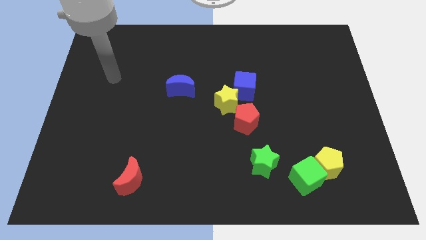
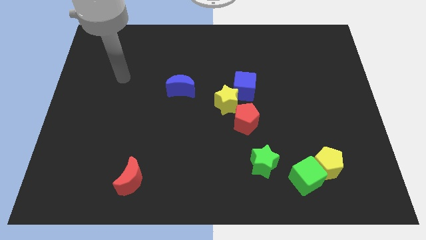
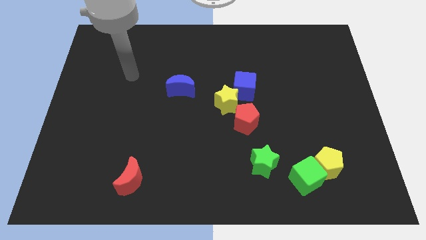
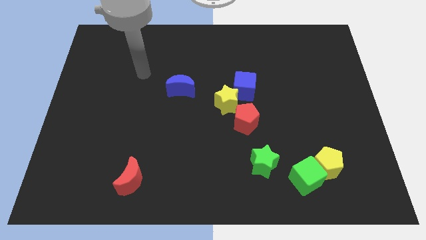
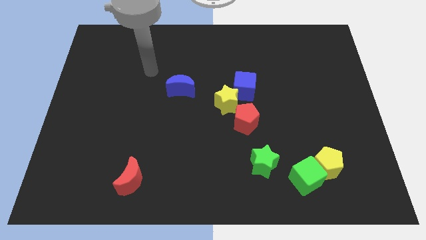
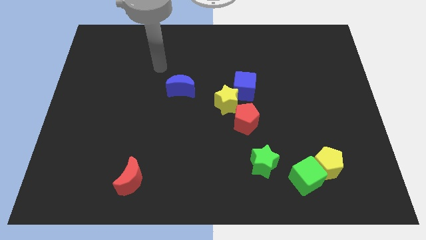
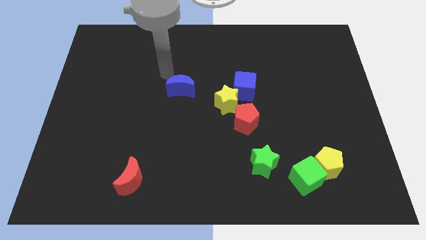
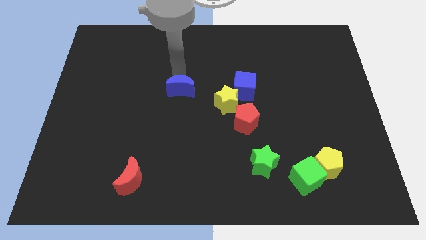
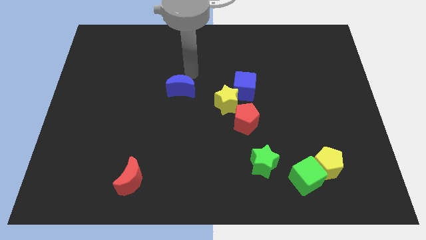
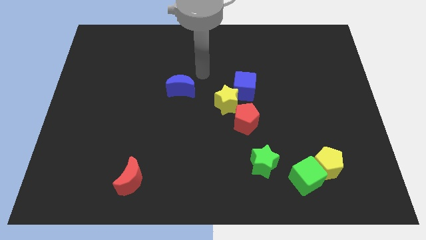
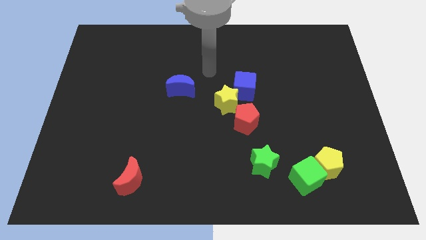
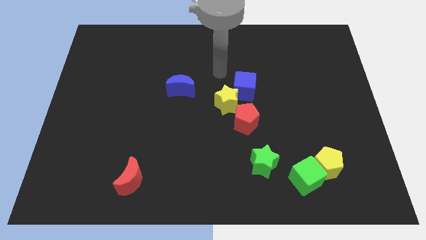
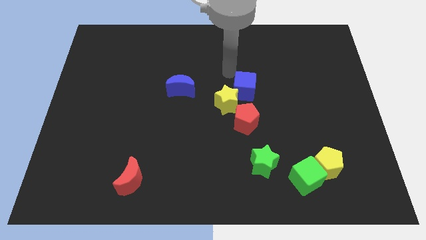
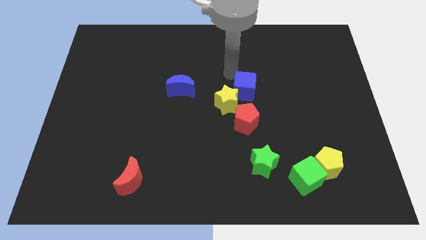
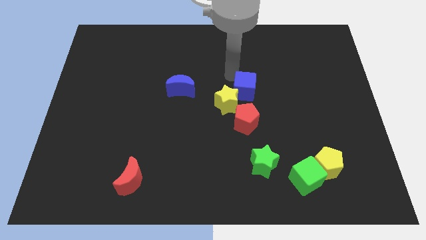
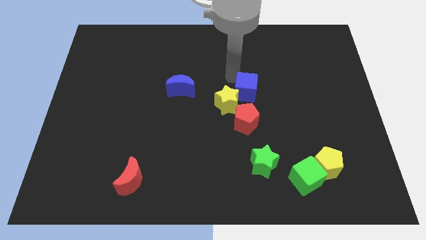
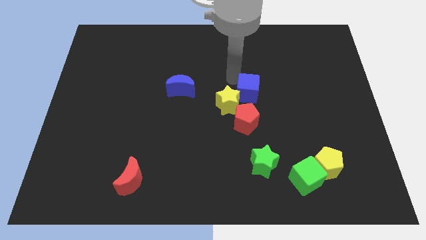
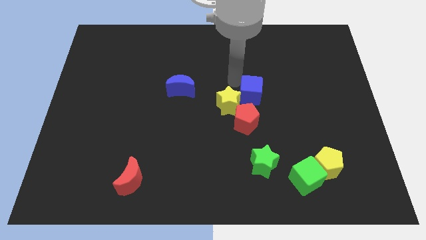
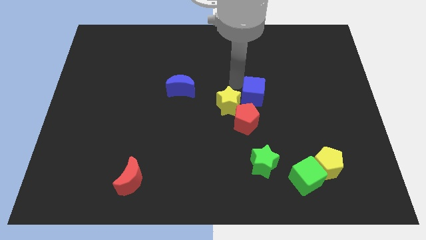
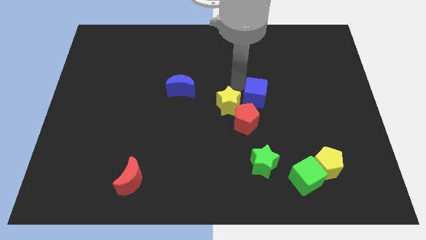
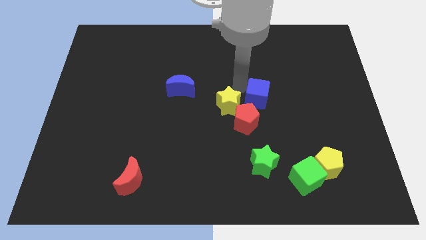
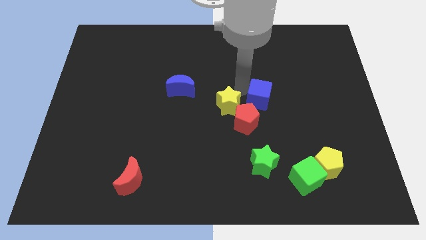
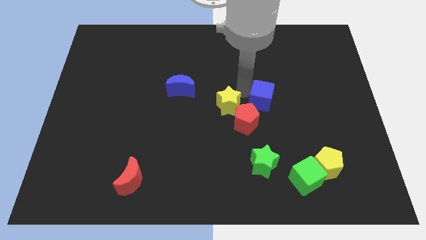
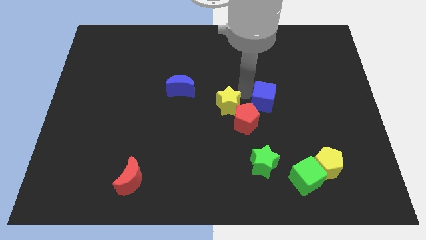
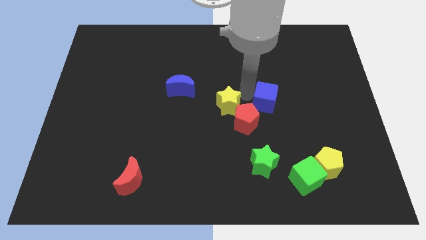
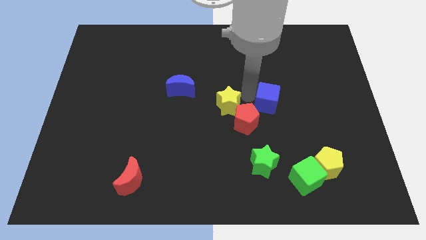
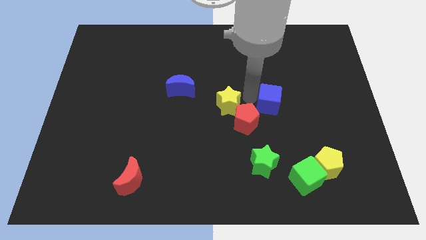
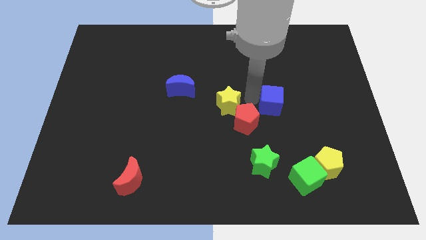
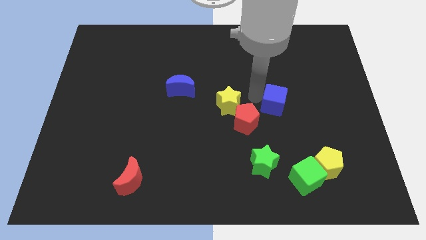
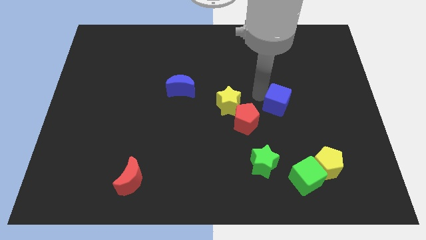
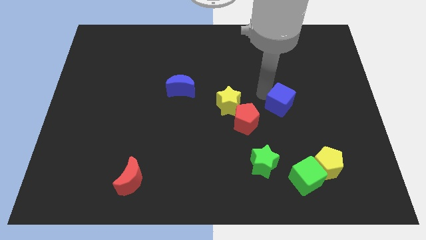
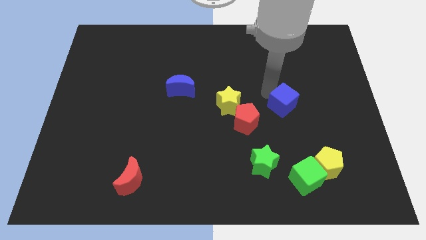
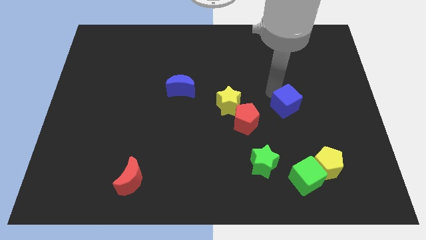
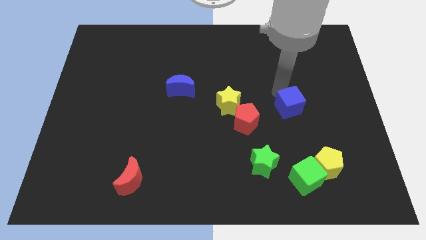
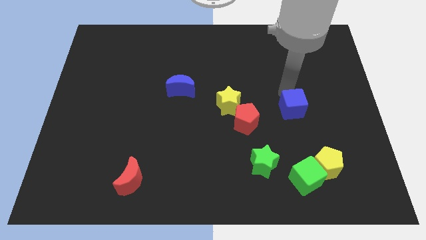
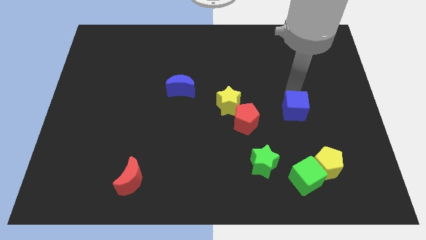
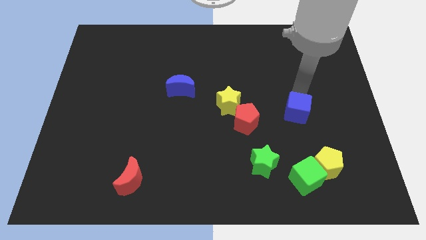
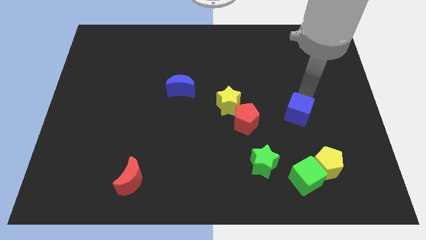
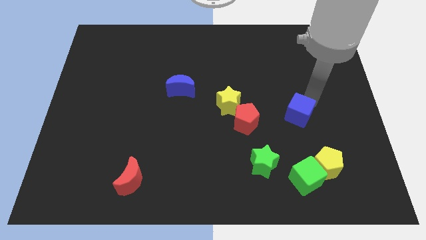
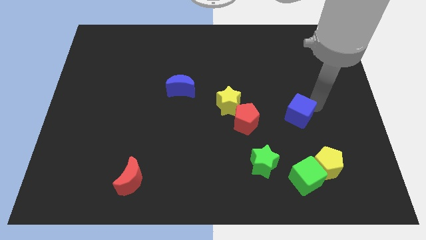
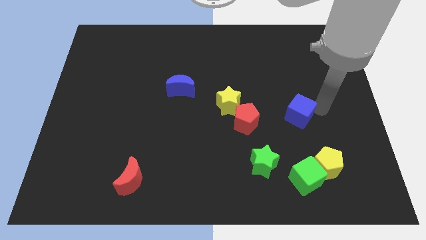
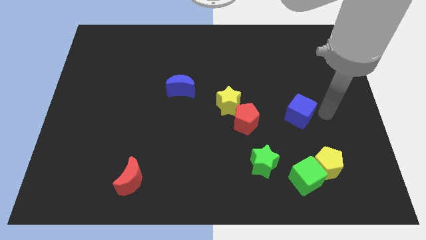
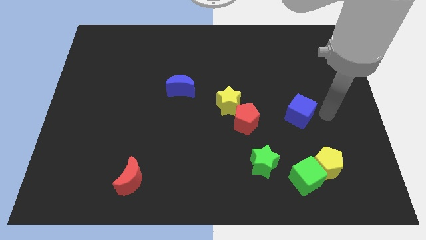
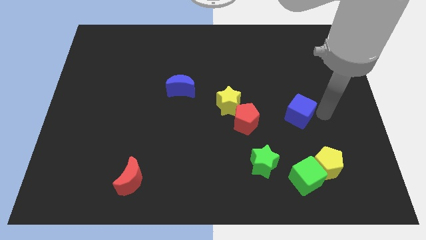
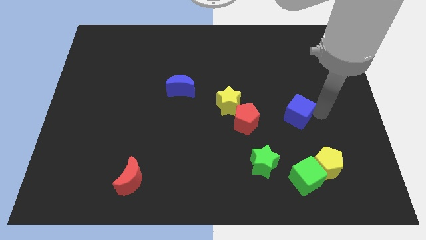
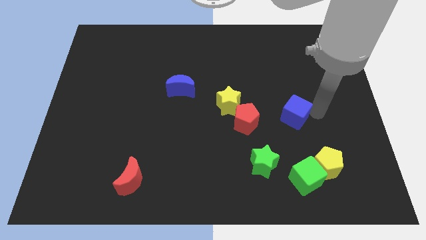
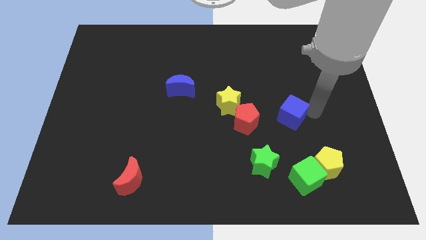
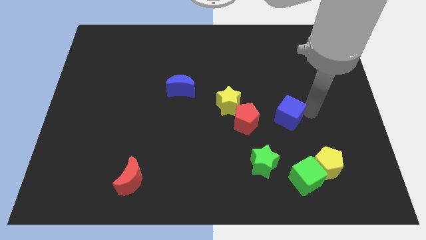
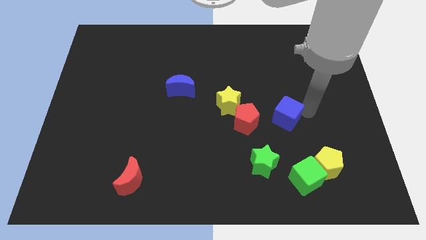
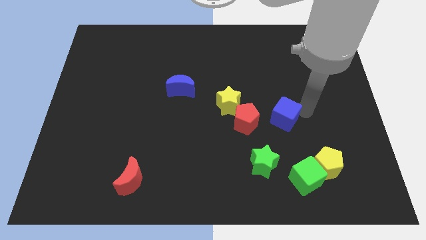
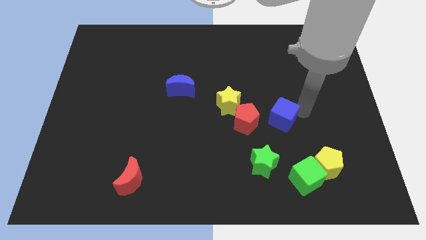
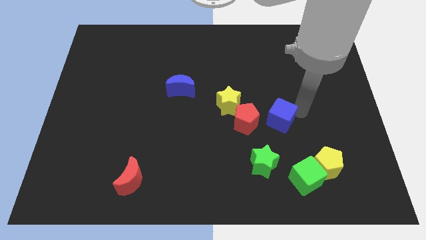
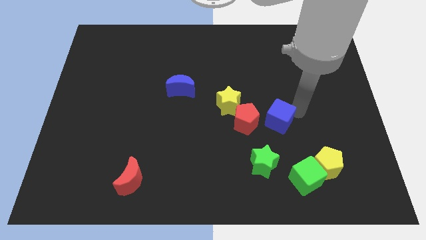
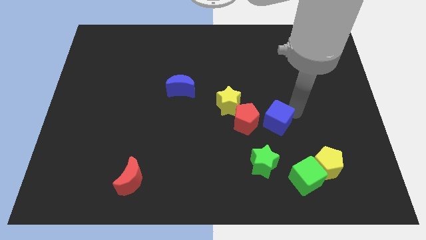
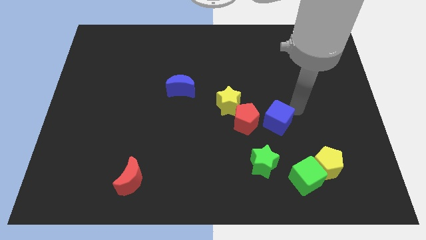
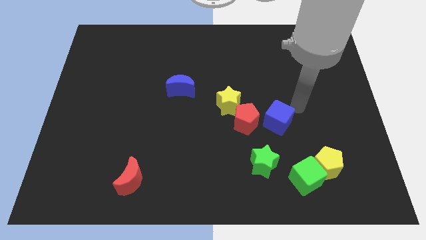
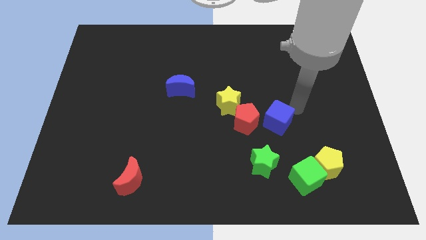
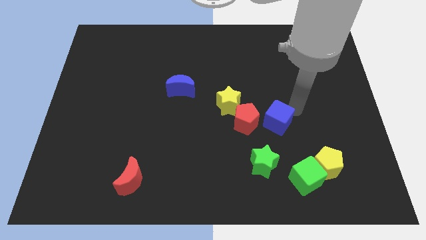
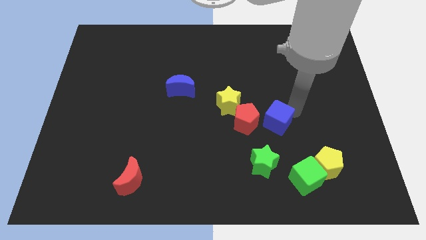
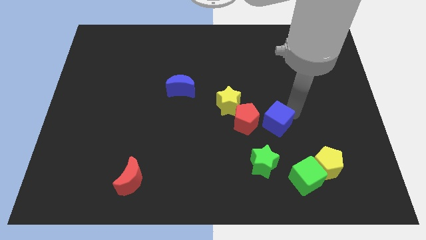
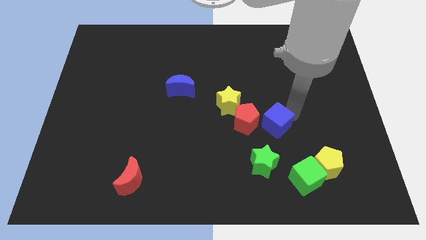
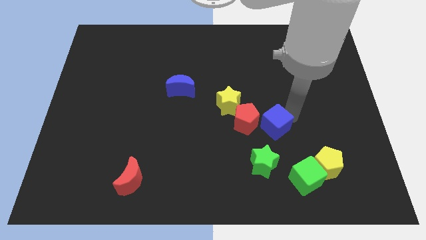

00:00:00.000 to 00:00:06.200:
move the blue cube diagonally down and to the right of the yellow star

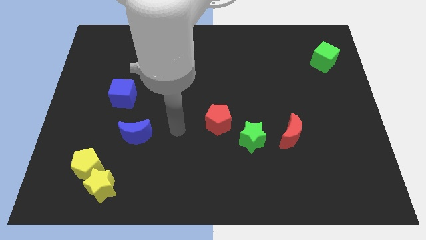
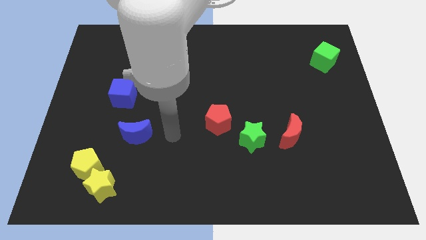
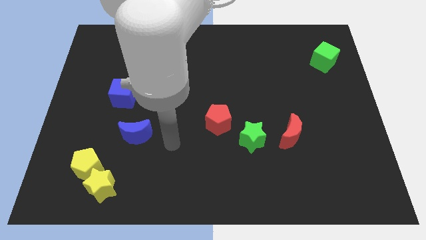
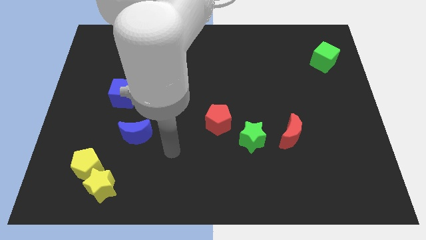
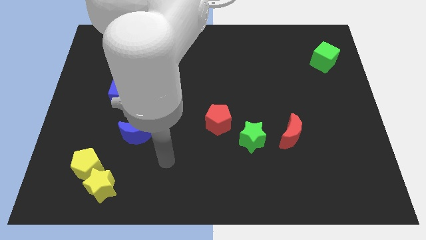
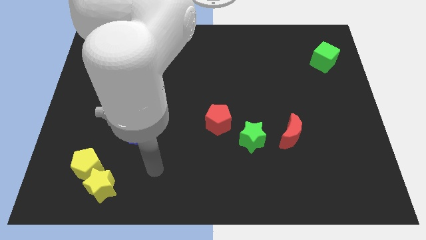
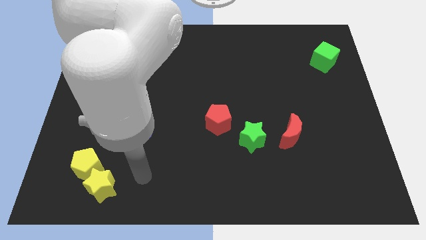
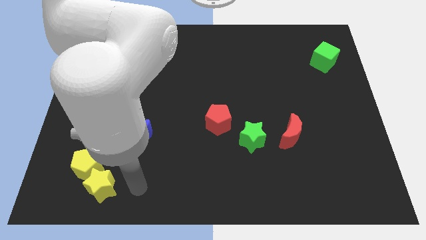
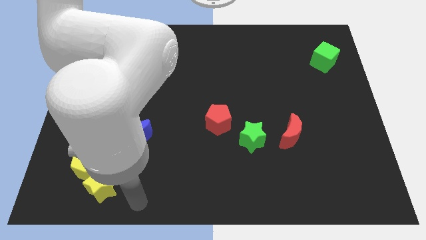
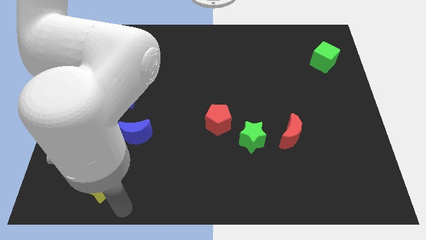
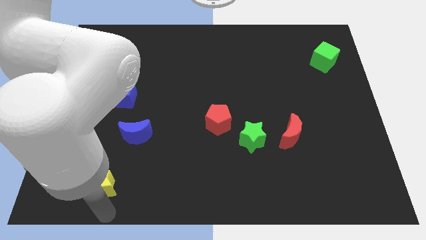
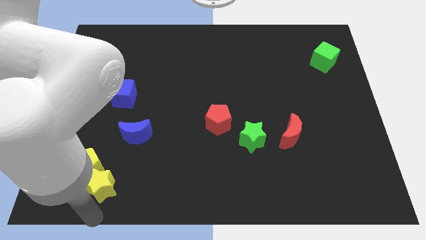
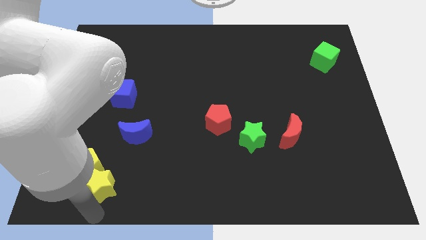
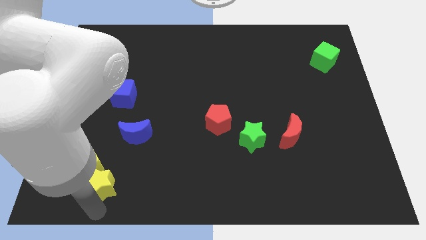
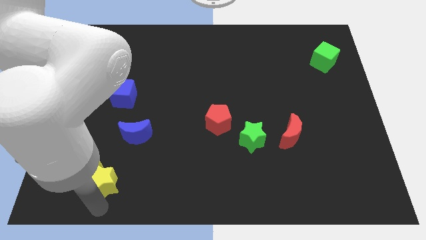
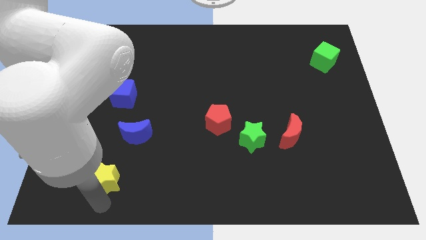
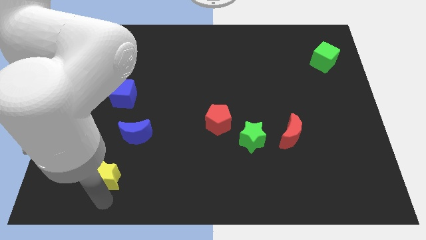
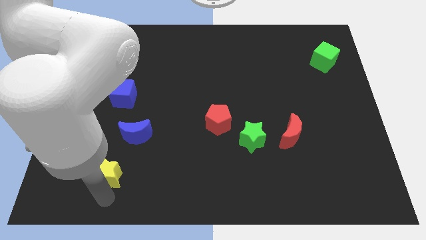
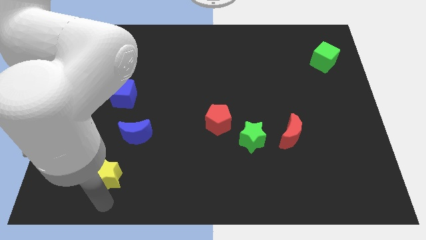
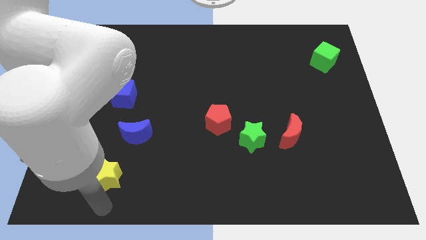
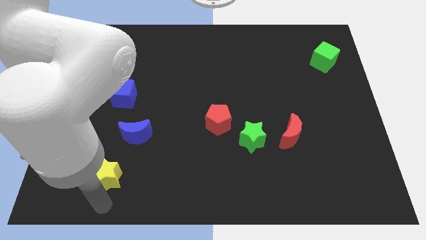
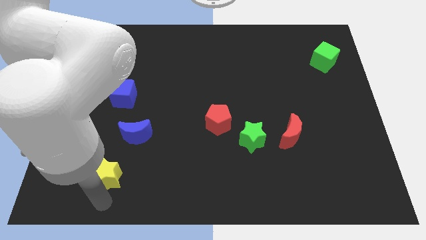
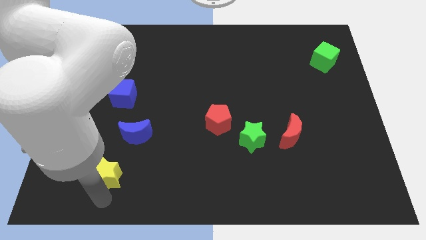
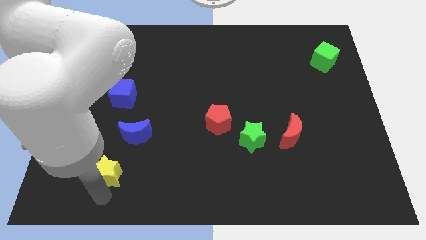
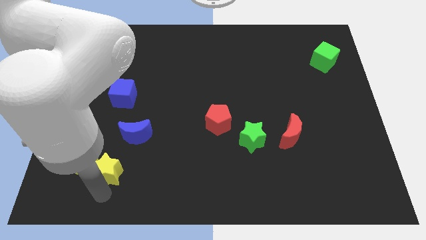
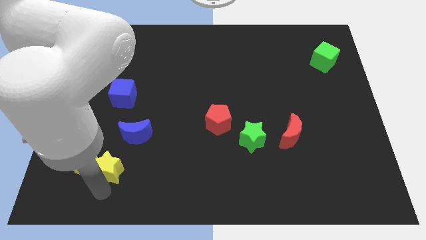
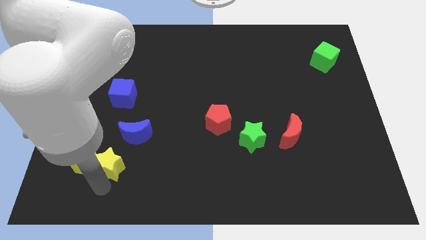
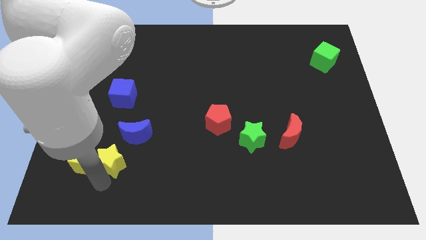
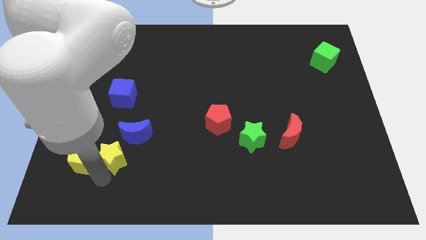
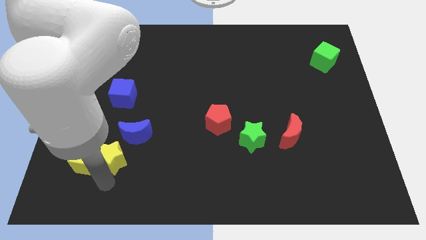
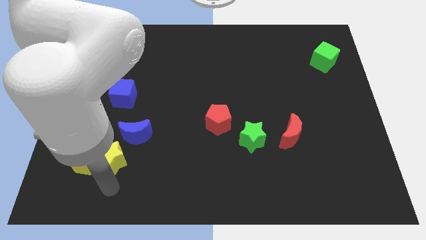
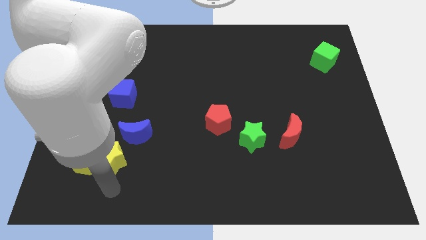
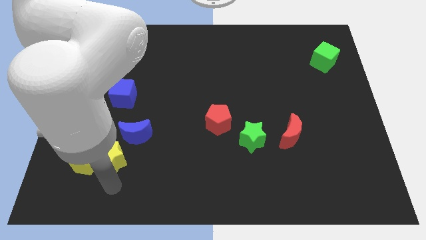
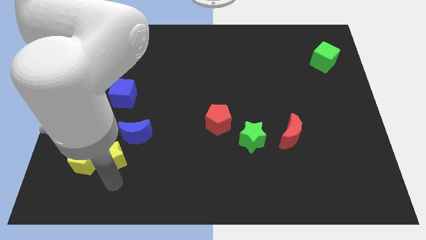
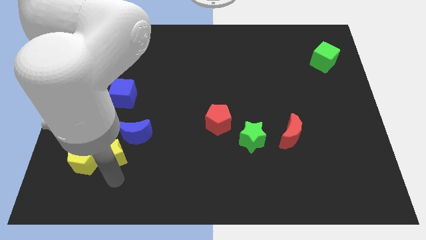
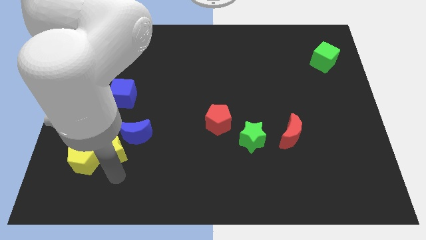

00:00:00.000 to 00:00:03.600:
slide the yellow star to the bottom side of the blue cube
